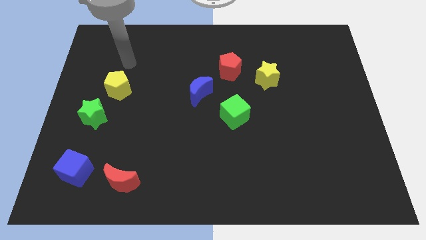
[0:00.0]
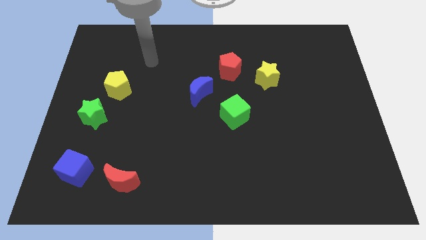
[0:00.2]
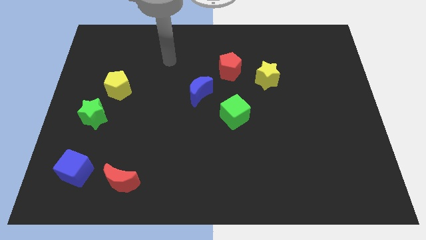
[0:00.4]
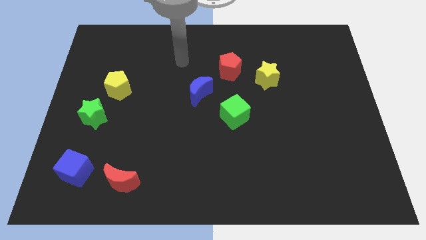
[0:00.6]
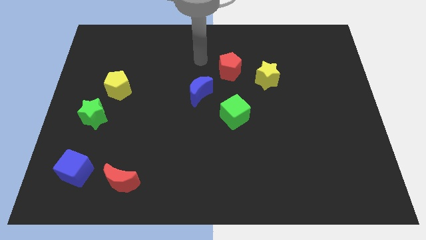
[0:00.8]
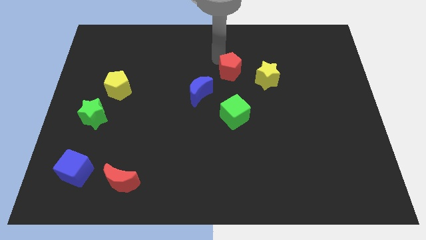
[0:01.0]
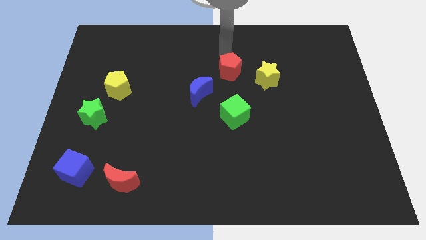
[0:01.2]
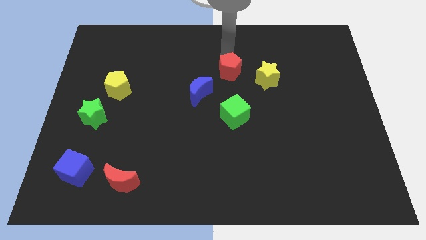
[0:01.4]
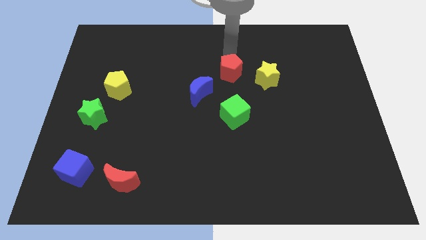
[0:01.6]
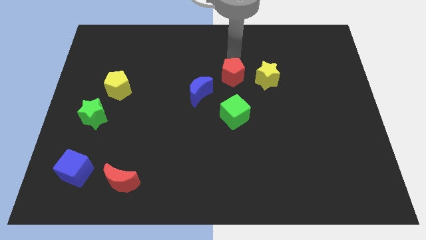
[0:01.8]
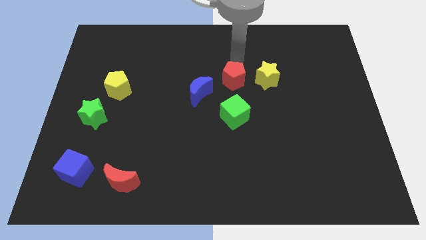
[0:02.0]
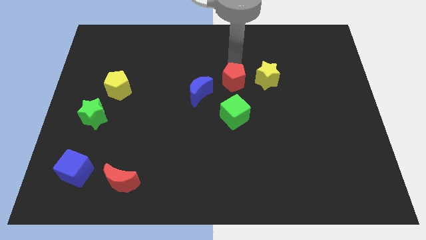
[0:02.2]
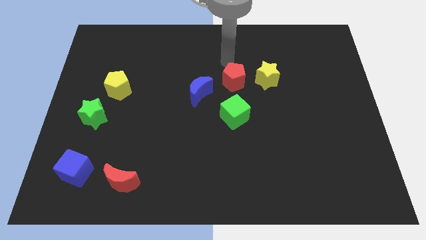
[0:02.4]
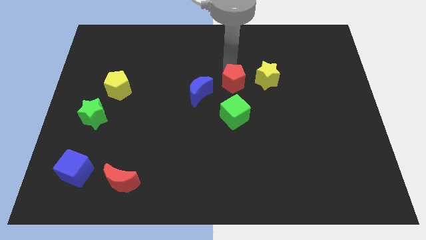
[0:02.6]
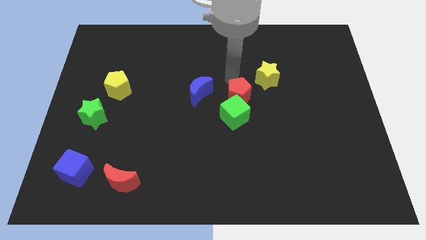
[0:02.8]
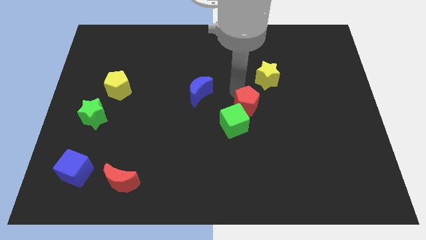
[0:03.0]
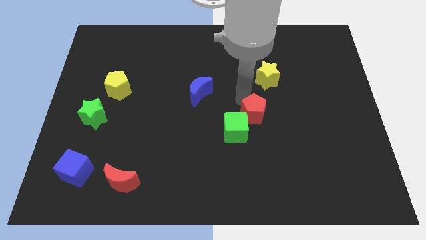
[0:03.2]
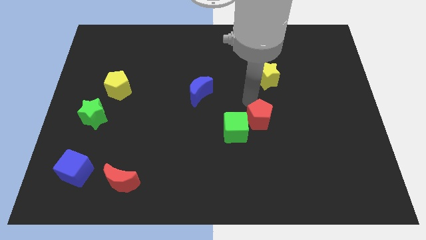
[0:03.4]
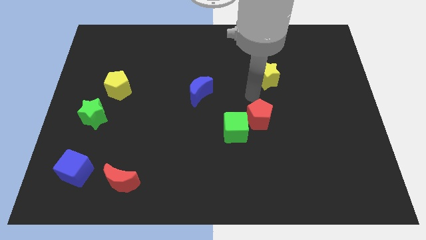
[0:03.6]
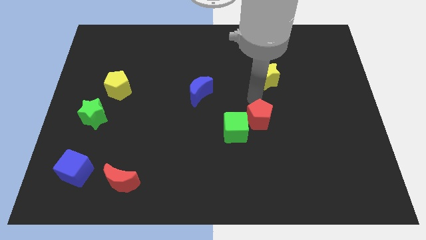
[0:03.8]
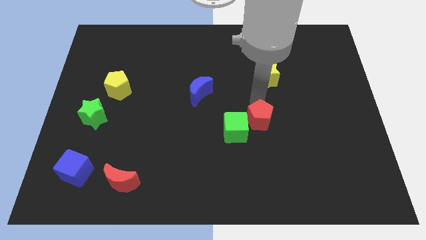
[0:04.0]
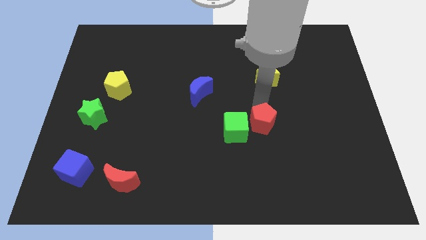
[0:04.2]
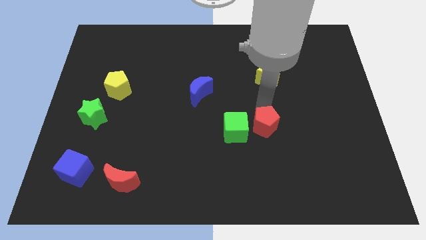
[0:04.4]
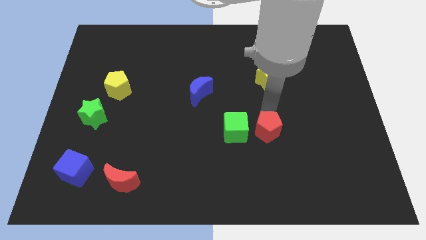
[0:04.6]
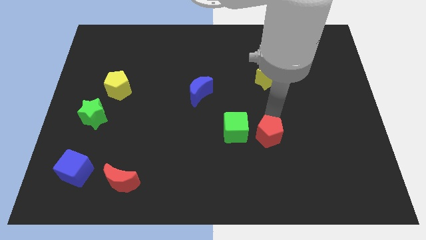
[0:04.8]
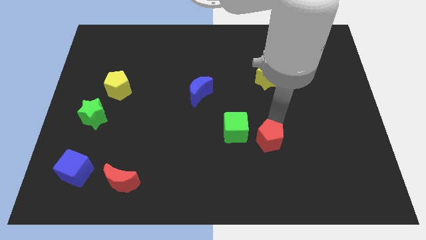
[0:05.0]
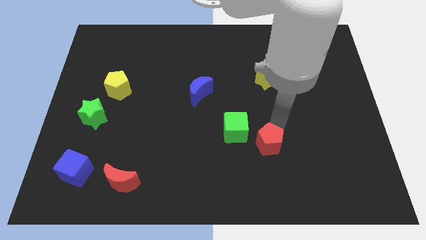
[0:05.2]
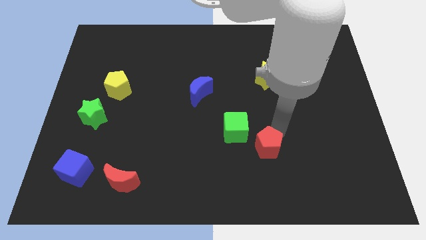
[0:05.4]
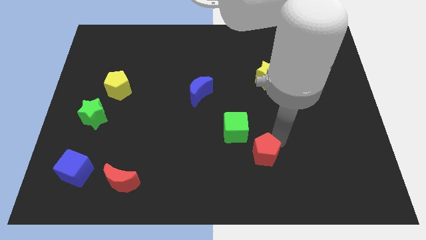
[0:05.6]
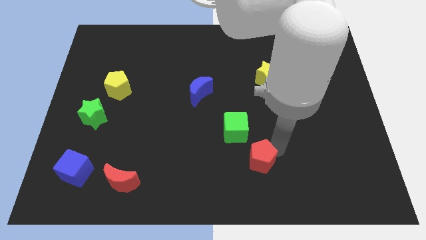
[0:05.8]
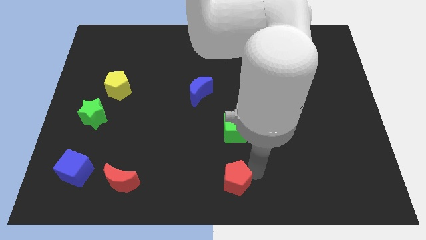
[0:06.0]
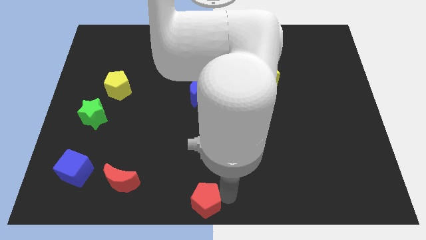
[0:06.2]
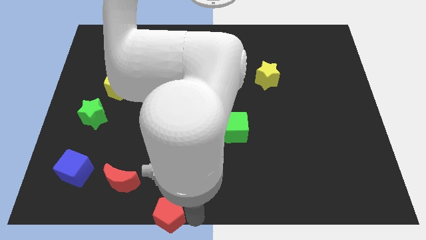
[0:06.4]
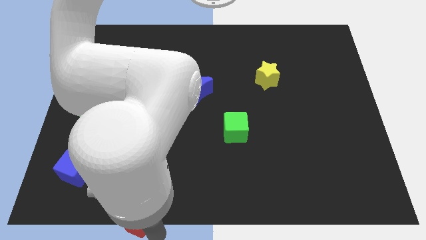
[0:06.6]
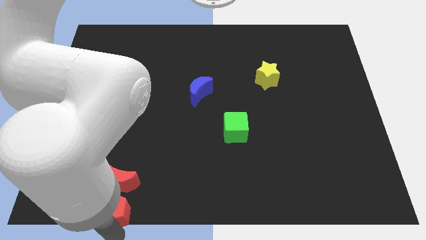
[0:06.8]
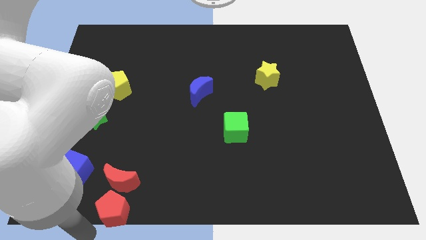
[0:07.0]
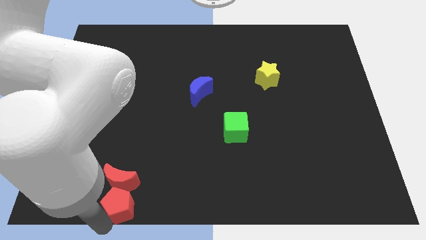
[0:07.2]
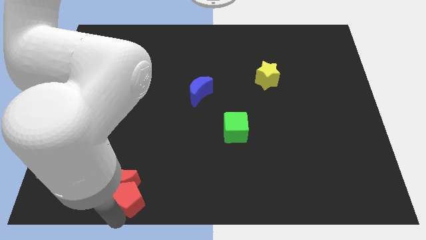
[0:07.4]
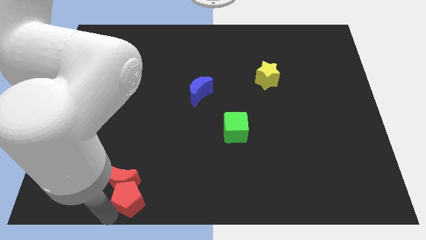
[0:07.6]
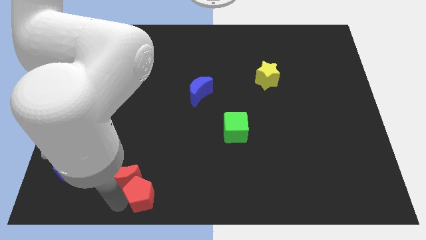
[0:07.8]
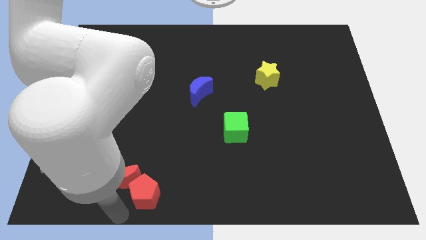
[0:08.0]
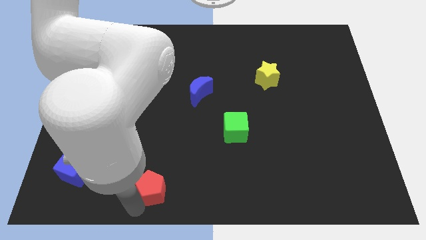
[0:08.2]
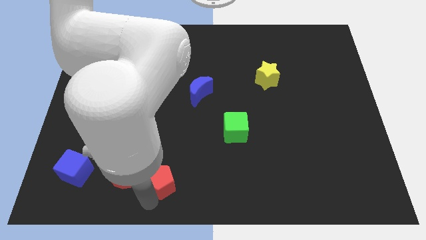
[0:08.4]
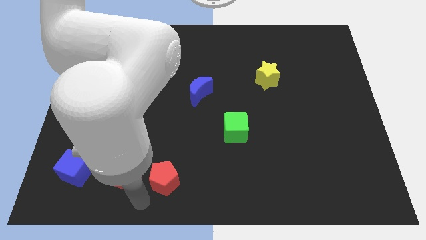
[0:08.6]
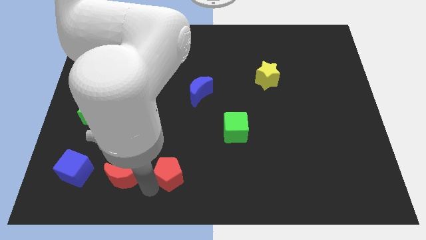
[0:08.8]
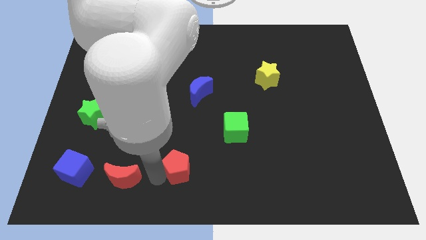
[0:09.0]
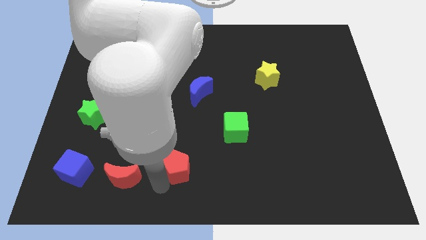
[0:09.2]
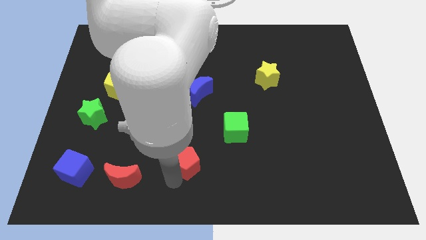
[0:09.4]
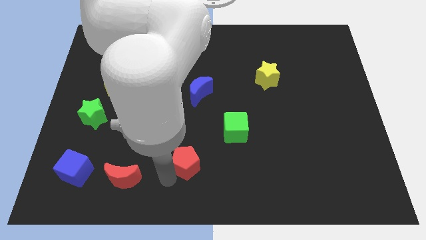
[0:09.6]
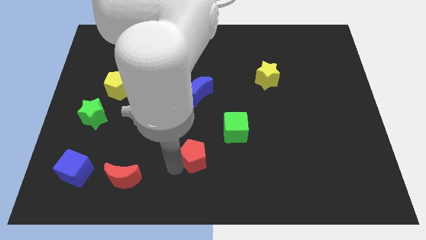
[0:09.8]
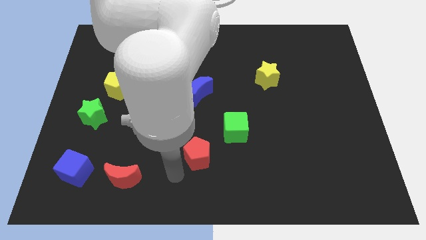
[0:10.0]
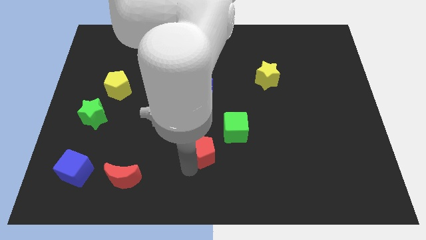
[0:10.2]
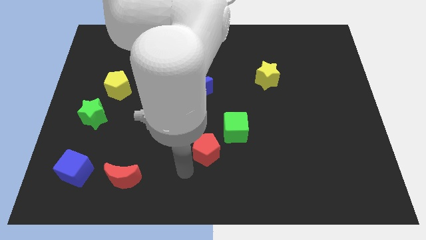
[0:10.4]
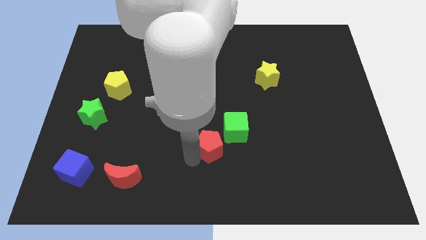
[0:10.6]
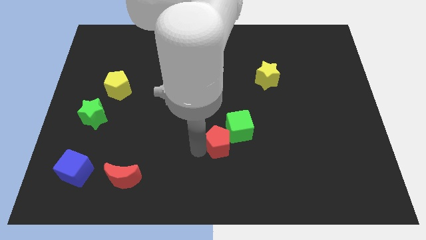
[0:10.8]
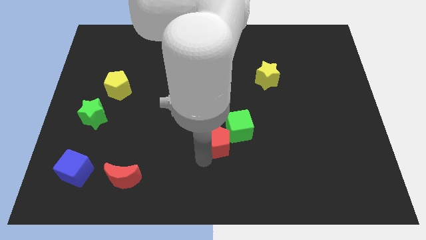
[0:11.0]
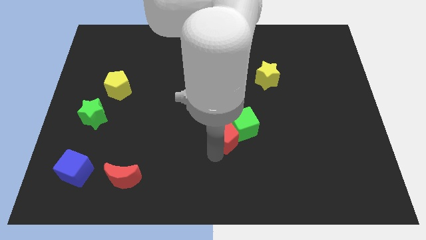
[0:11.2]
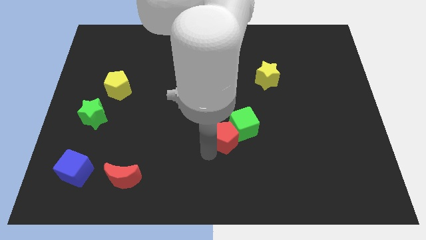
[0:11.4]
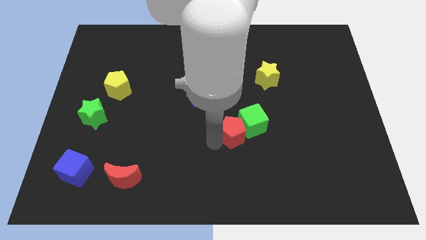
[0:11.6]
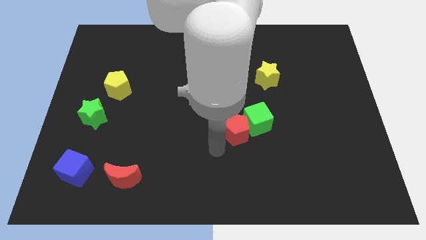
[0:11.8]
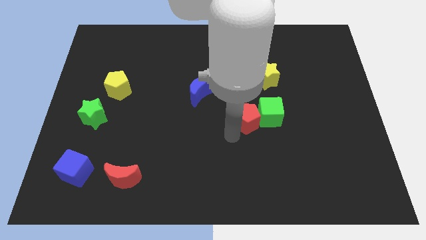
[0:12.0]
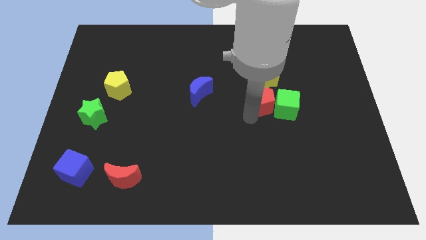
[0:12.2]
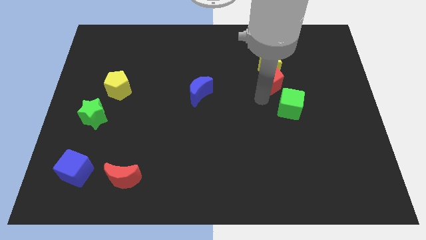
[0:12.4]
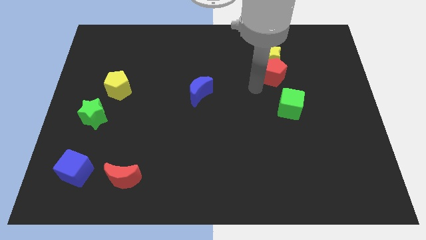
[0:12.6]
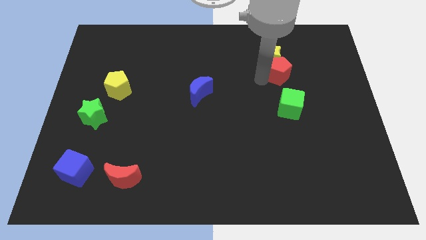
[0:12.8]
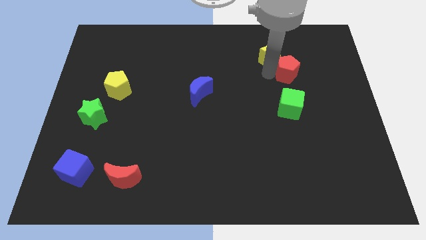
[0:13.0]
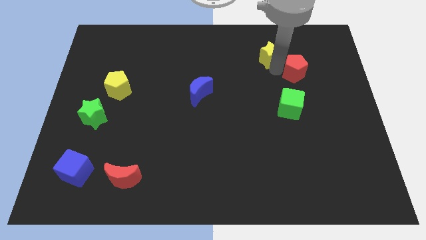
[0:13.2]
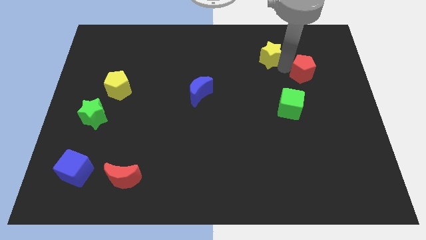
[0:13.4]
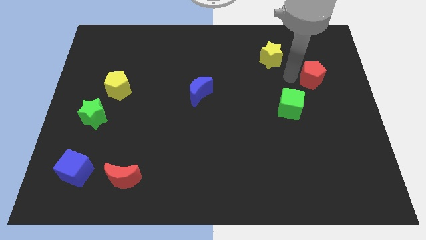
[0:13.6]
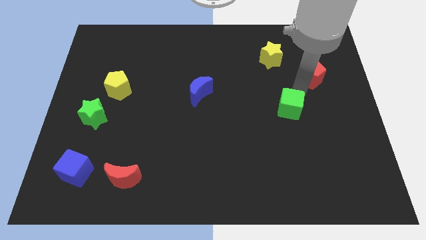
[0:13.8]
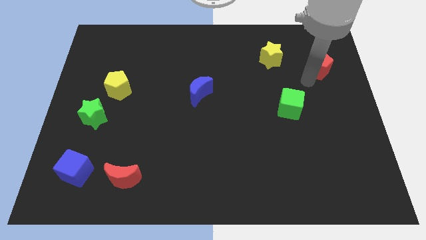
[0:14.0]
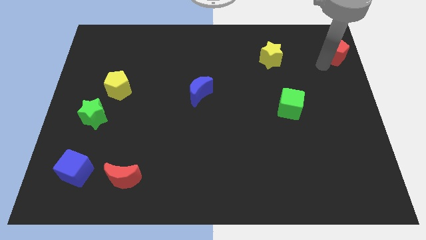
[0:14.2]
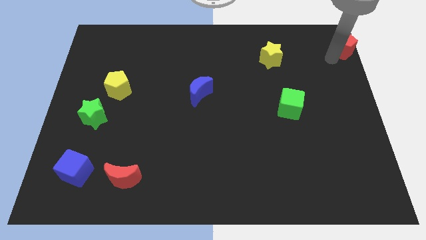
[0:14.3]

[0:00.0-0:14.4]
put the red pentagon to the top right corner
